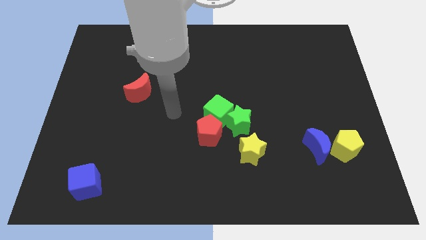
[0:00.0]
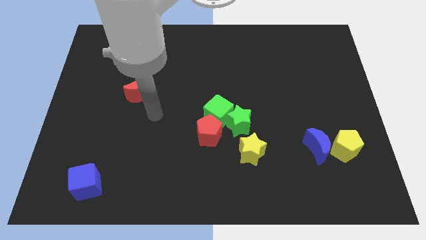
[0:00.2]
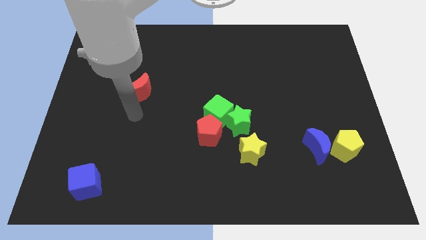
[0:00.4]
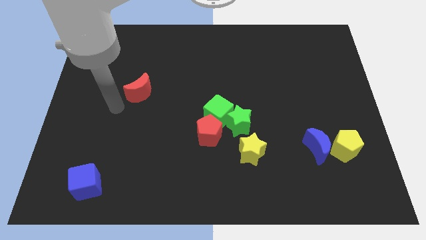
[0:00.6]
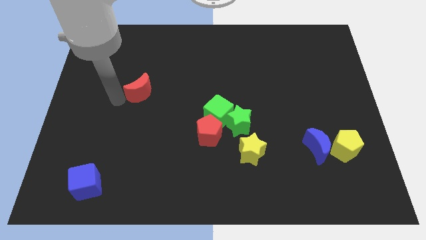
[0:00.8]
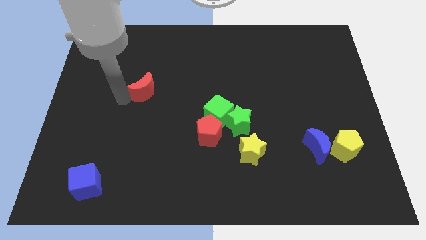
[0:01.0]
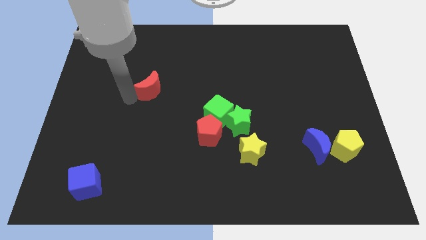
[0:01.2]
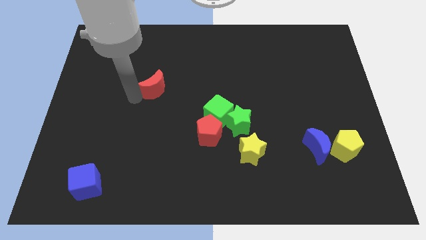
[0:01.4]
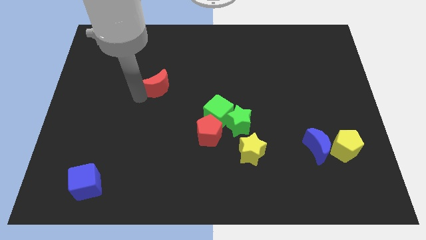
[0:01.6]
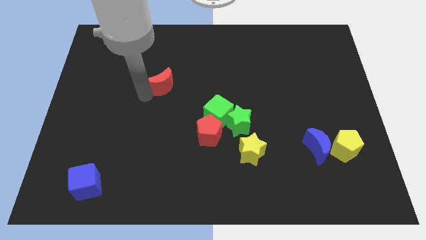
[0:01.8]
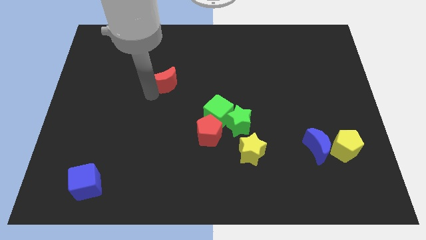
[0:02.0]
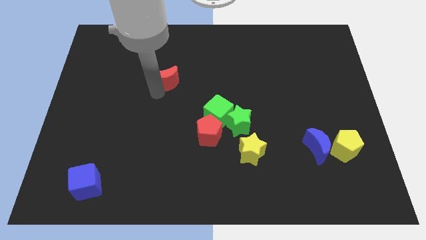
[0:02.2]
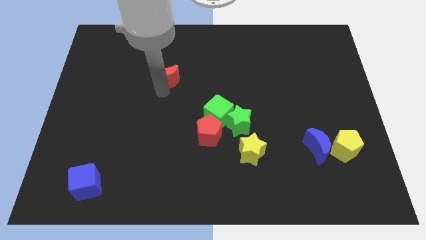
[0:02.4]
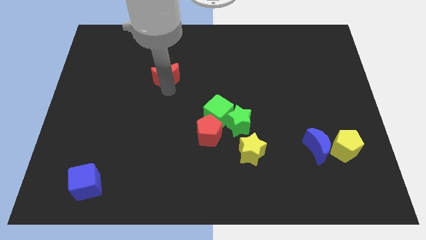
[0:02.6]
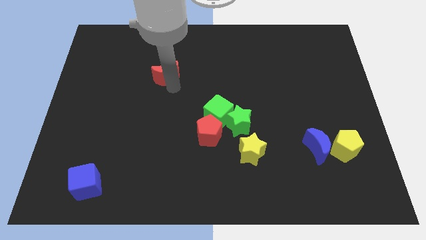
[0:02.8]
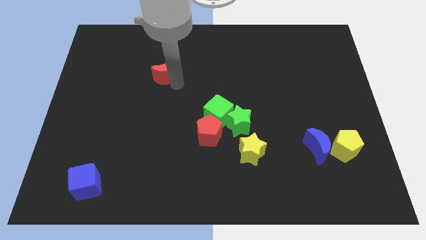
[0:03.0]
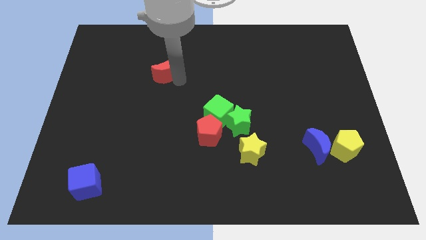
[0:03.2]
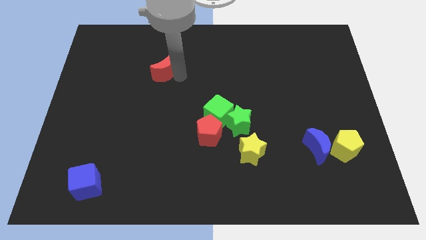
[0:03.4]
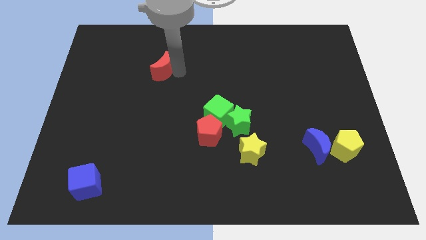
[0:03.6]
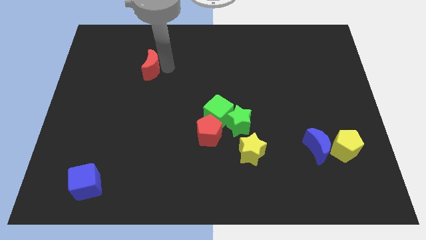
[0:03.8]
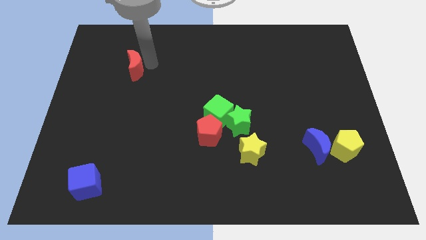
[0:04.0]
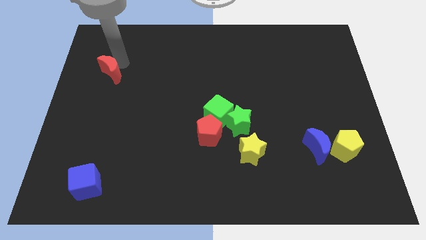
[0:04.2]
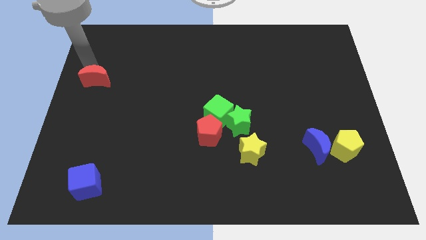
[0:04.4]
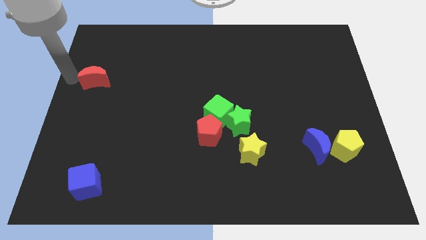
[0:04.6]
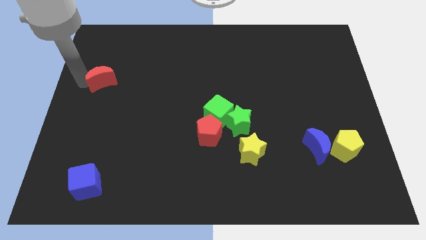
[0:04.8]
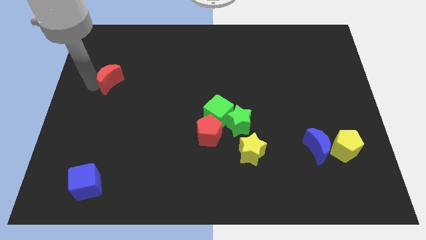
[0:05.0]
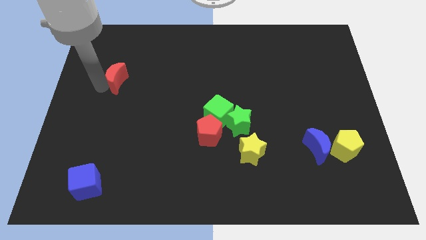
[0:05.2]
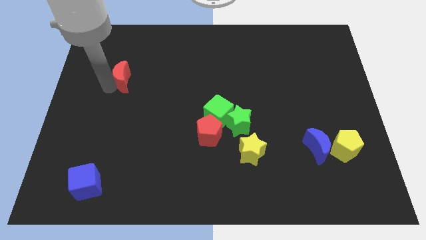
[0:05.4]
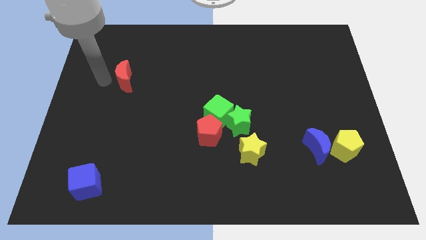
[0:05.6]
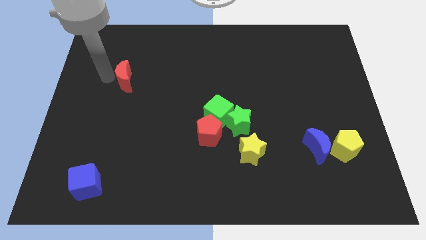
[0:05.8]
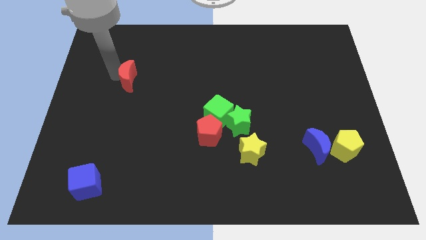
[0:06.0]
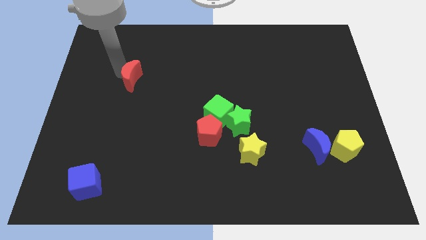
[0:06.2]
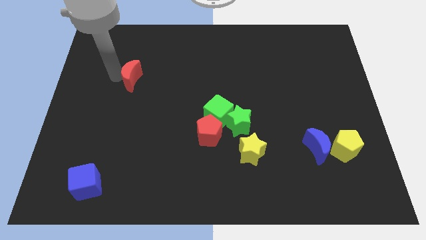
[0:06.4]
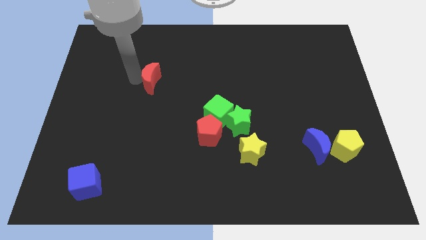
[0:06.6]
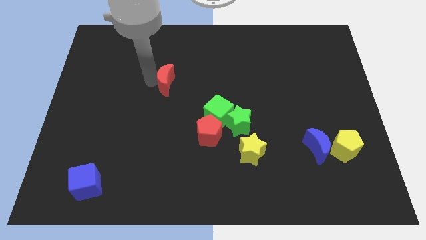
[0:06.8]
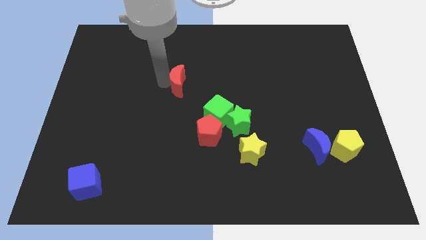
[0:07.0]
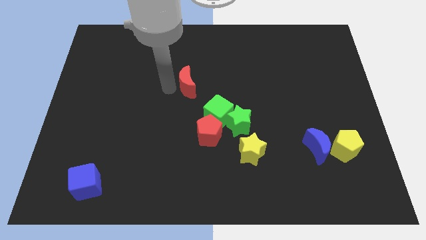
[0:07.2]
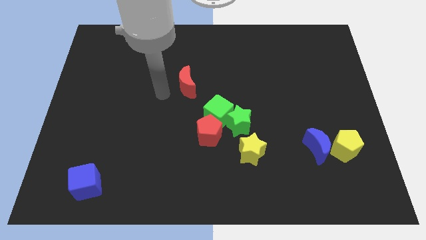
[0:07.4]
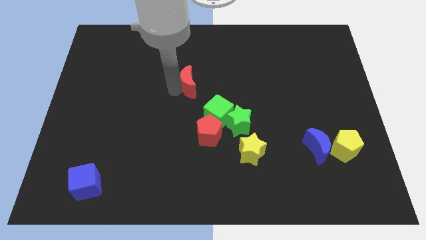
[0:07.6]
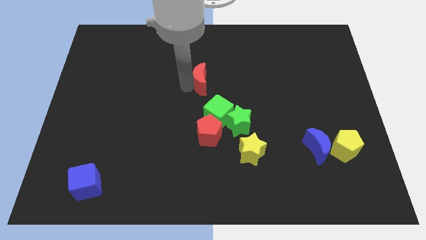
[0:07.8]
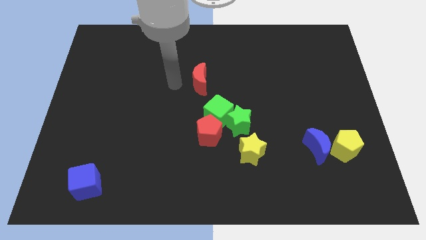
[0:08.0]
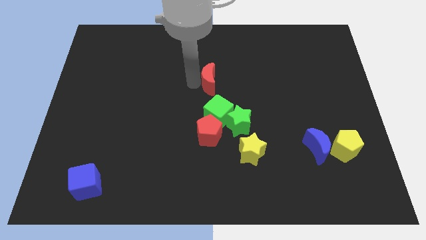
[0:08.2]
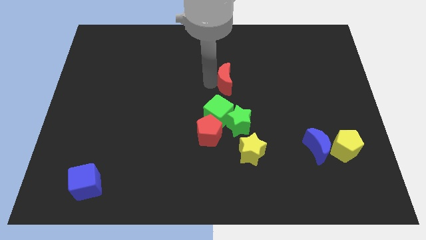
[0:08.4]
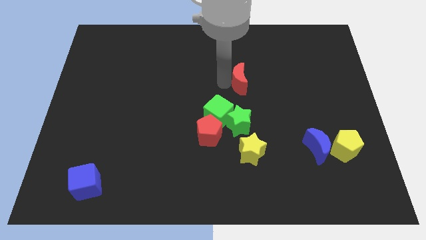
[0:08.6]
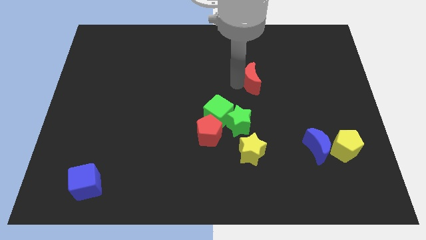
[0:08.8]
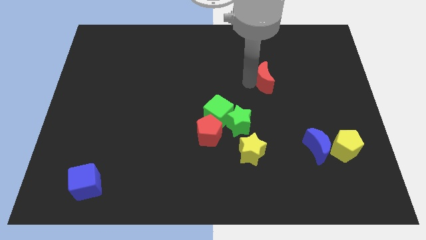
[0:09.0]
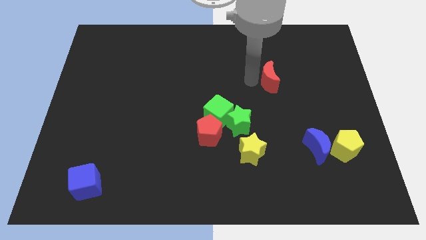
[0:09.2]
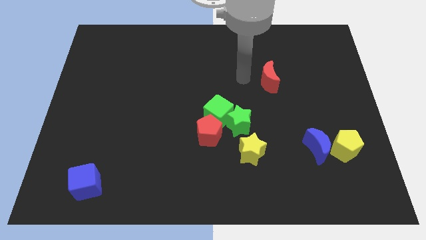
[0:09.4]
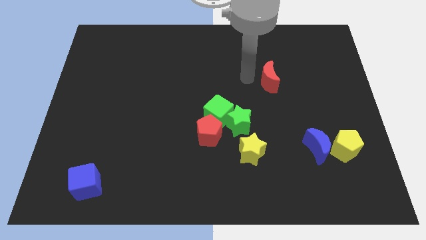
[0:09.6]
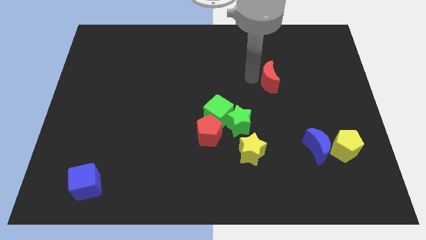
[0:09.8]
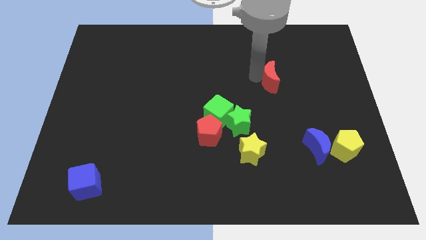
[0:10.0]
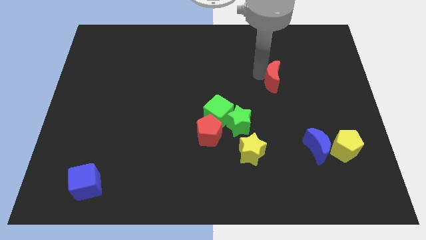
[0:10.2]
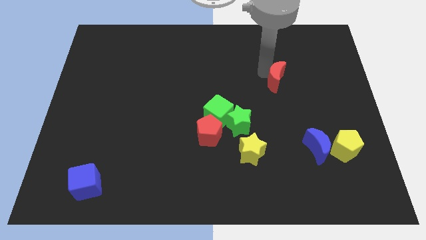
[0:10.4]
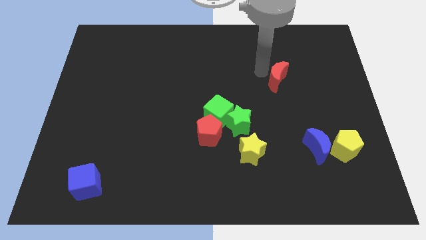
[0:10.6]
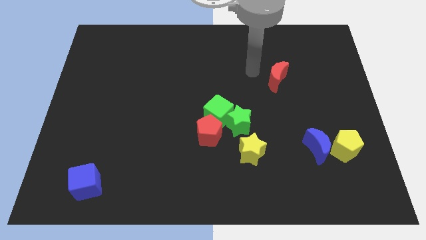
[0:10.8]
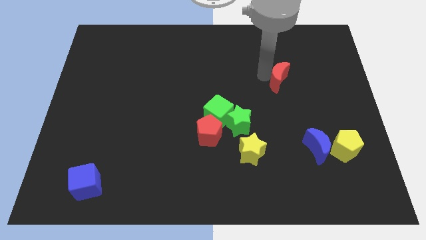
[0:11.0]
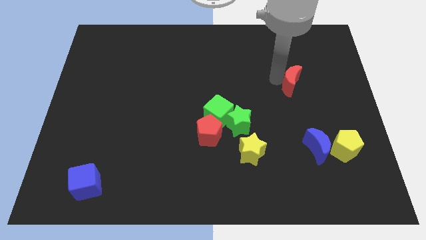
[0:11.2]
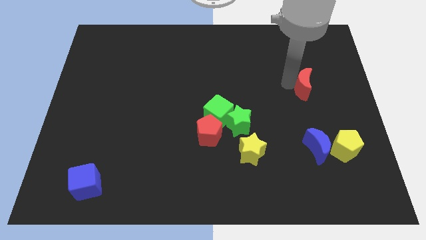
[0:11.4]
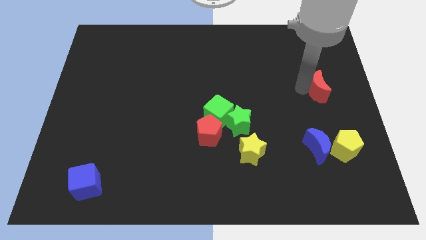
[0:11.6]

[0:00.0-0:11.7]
put the red moon to the center right

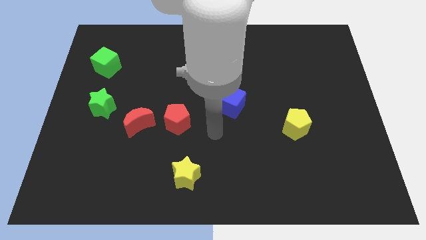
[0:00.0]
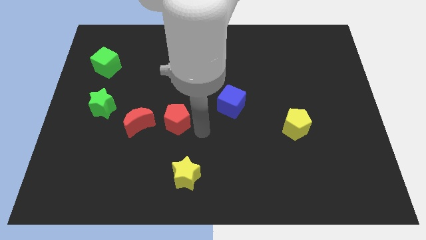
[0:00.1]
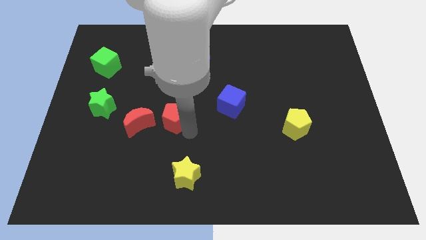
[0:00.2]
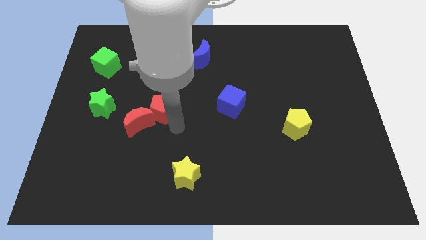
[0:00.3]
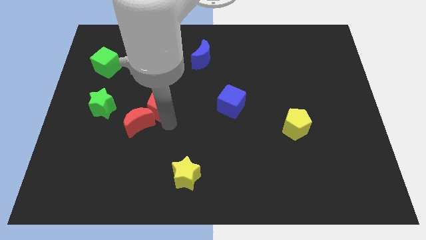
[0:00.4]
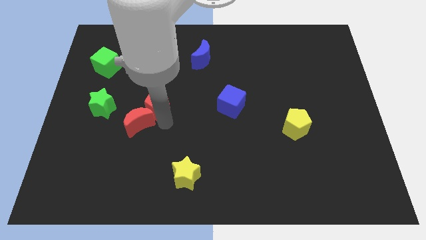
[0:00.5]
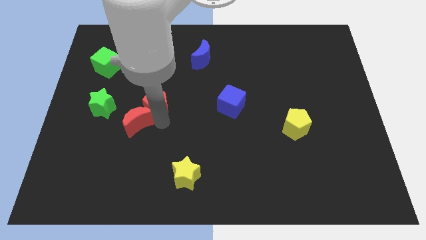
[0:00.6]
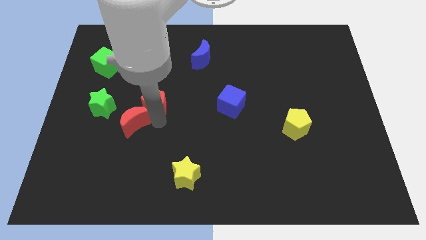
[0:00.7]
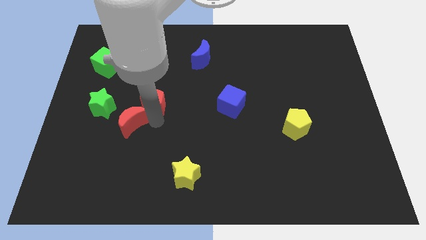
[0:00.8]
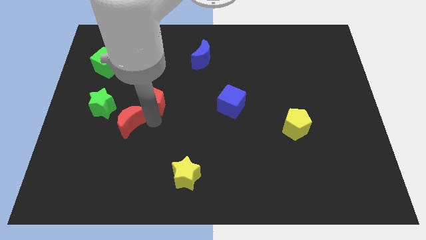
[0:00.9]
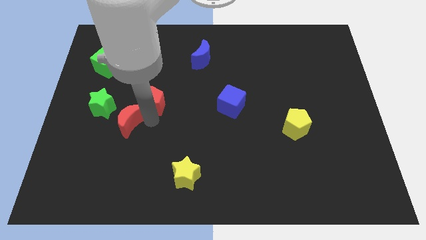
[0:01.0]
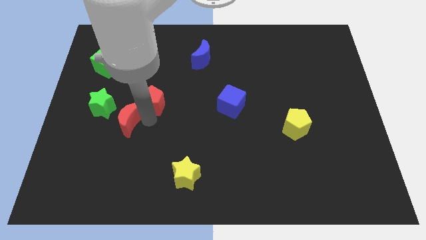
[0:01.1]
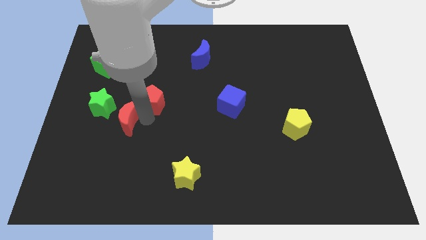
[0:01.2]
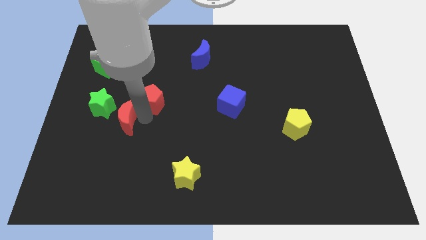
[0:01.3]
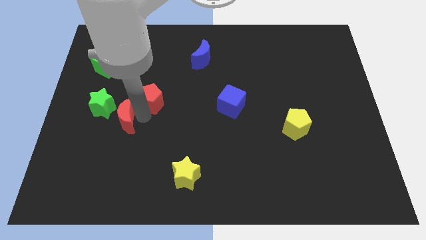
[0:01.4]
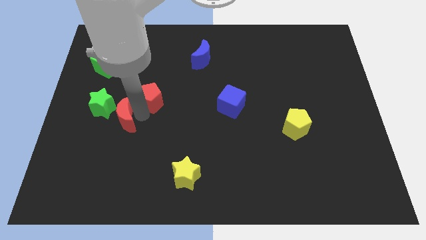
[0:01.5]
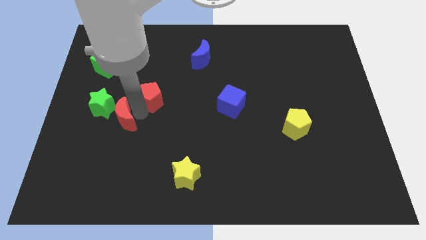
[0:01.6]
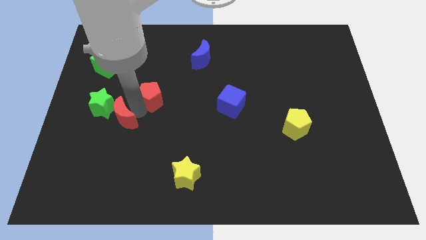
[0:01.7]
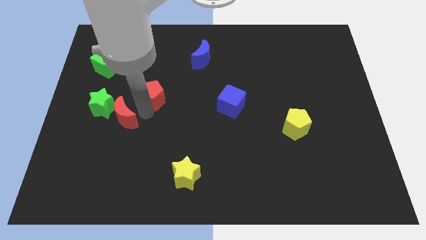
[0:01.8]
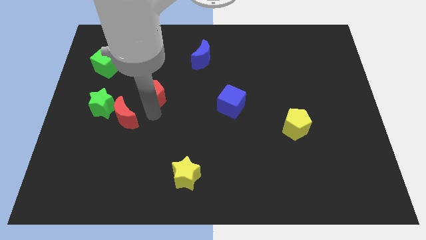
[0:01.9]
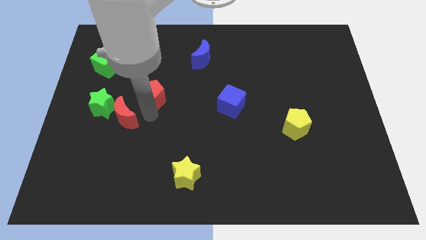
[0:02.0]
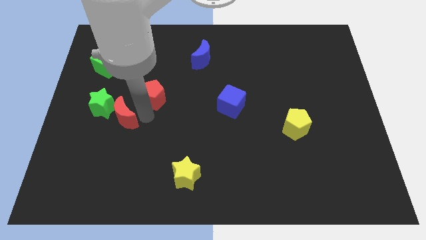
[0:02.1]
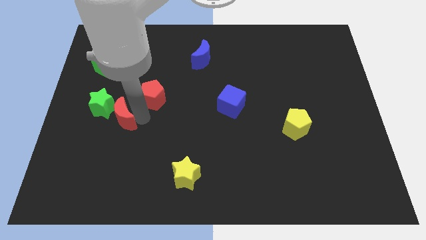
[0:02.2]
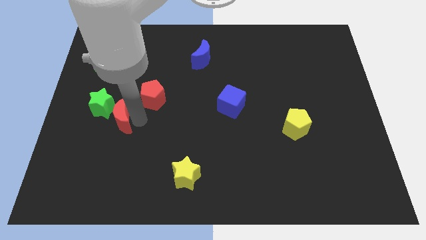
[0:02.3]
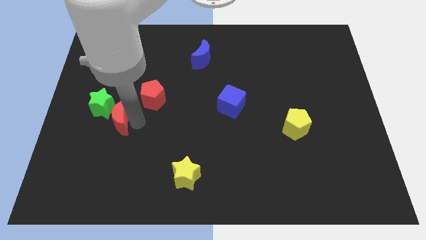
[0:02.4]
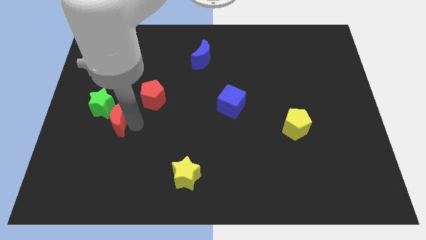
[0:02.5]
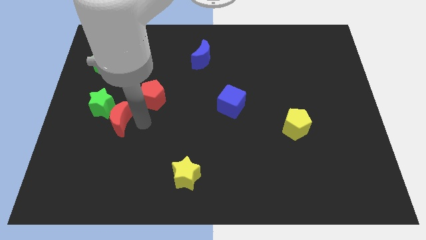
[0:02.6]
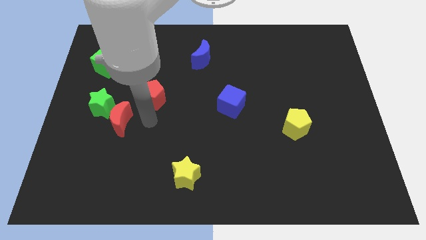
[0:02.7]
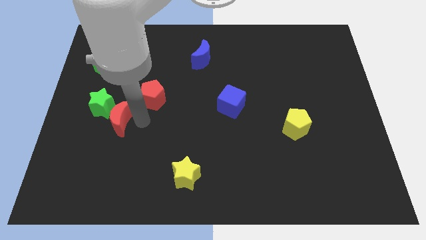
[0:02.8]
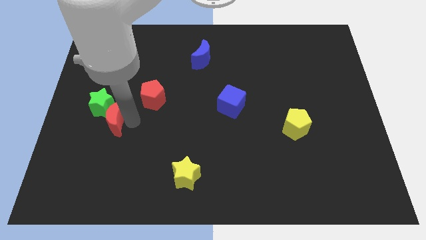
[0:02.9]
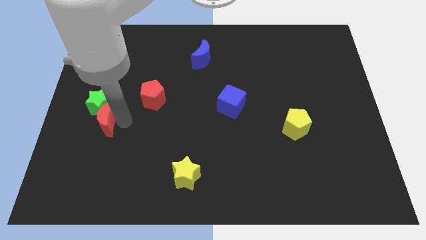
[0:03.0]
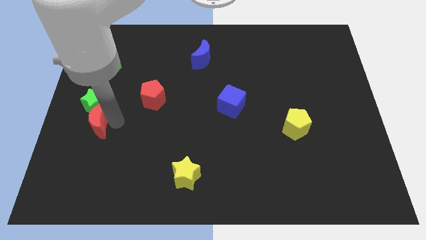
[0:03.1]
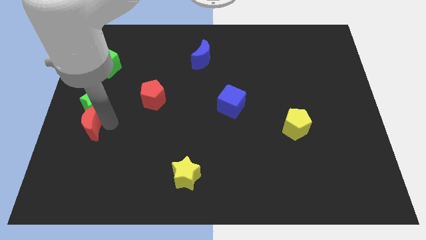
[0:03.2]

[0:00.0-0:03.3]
move the red moon to the center left
